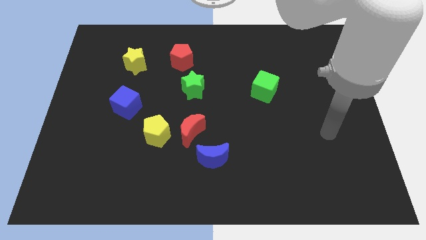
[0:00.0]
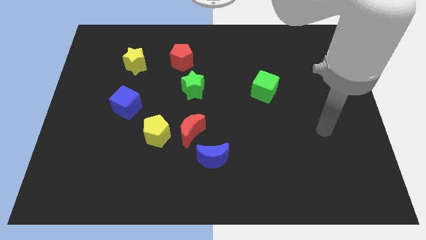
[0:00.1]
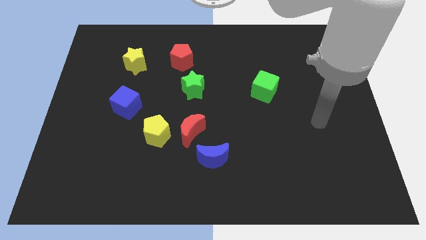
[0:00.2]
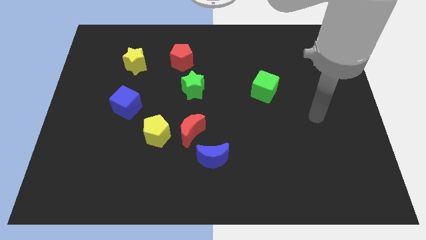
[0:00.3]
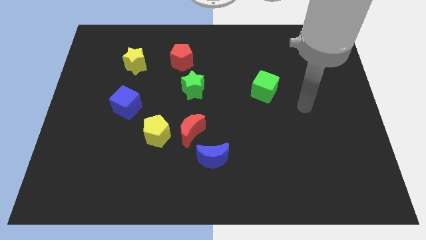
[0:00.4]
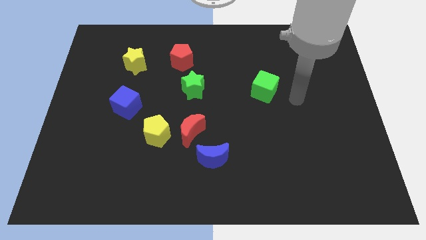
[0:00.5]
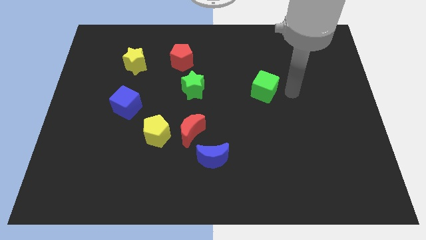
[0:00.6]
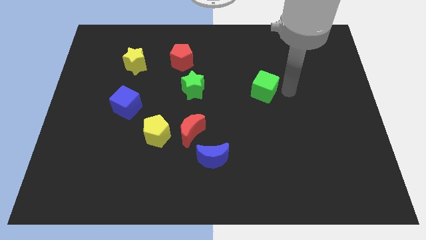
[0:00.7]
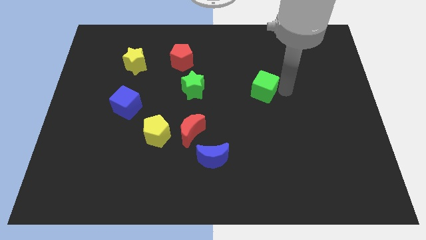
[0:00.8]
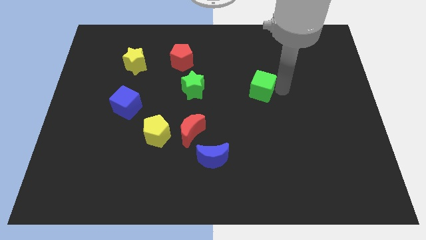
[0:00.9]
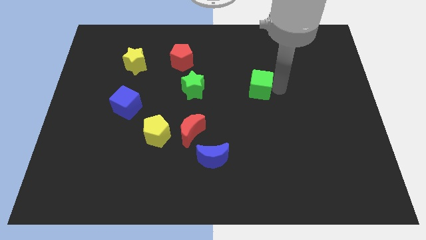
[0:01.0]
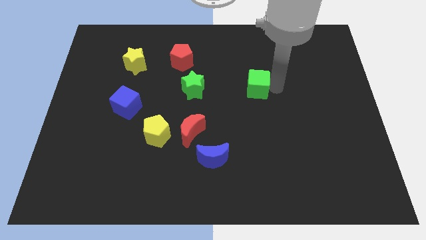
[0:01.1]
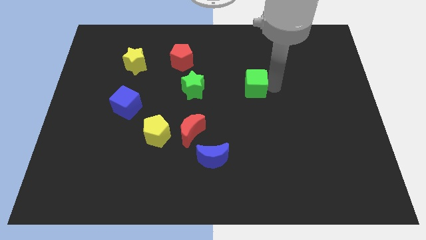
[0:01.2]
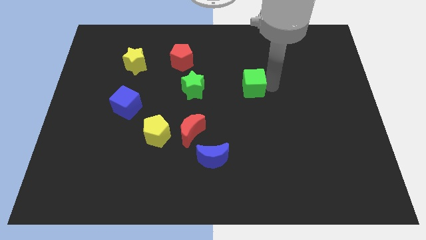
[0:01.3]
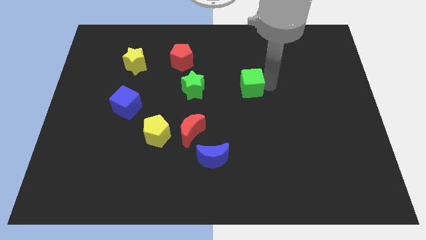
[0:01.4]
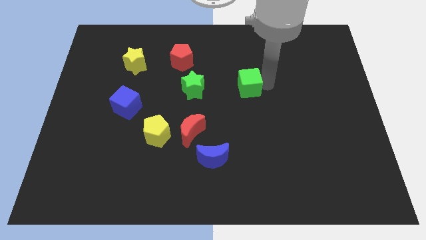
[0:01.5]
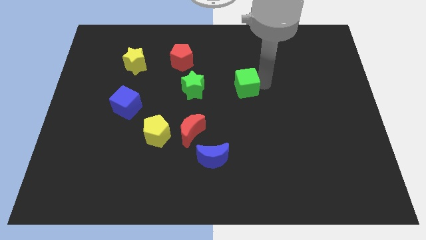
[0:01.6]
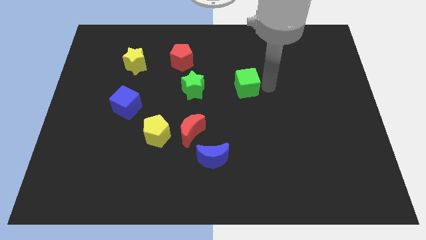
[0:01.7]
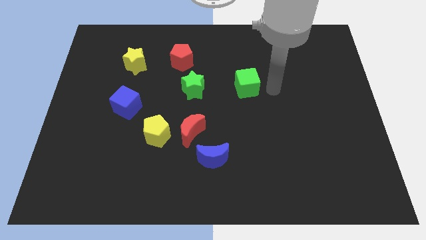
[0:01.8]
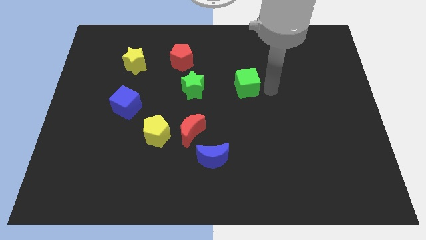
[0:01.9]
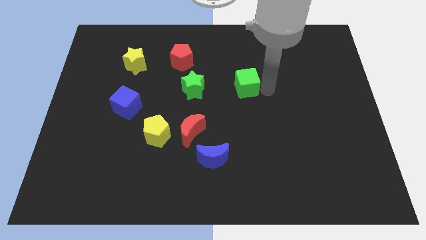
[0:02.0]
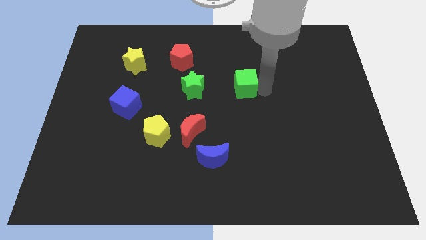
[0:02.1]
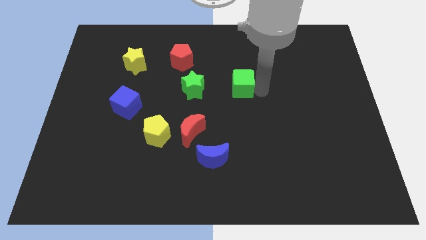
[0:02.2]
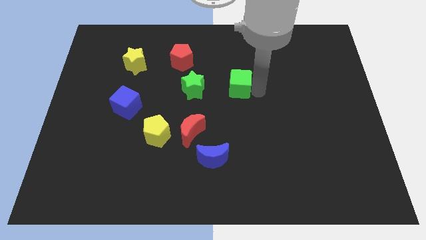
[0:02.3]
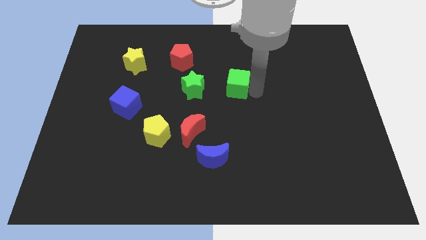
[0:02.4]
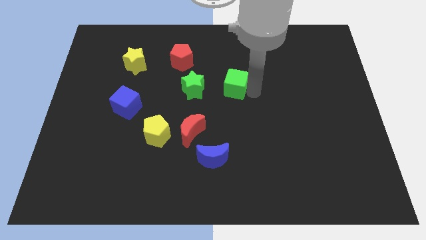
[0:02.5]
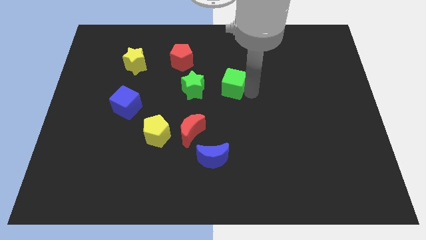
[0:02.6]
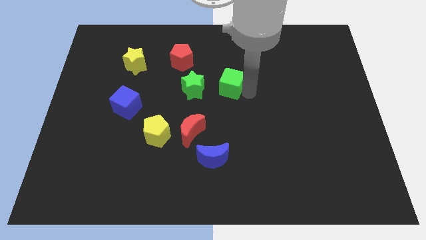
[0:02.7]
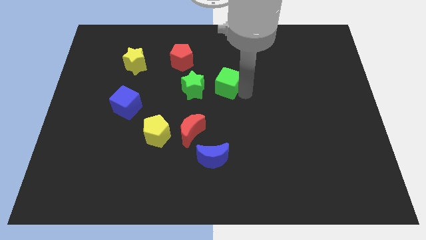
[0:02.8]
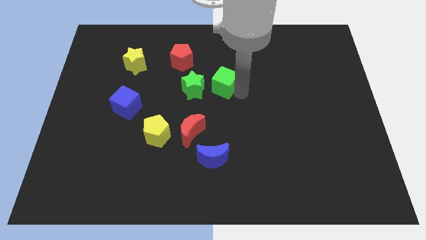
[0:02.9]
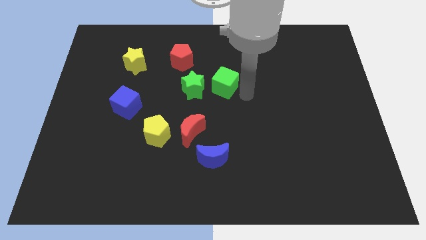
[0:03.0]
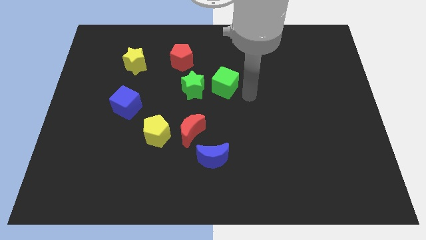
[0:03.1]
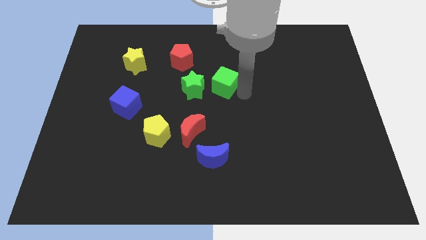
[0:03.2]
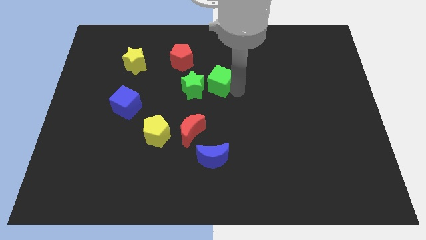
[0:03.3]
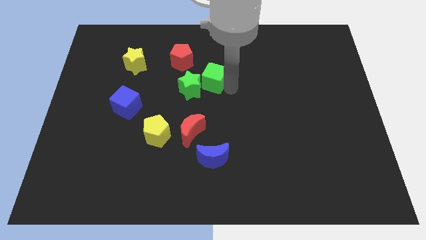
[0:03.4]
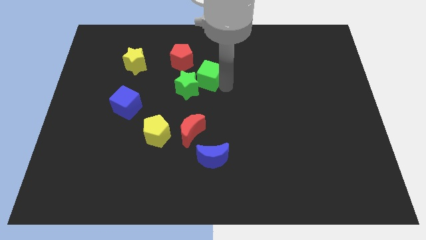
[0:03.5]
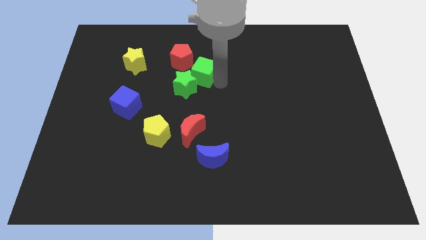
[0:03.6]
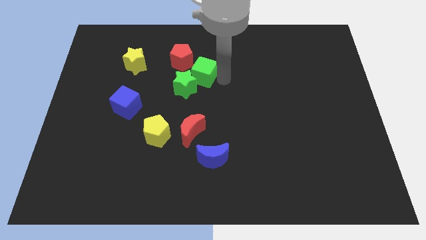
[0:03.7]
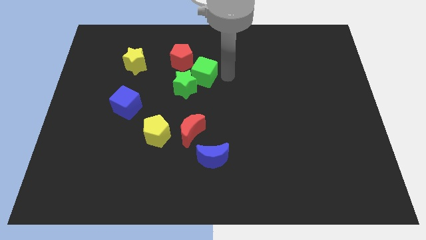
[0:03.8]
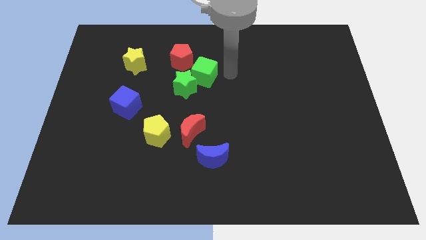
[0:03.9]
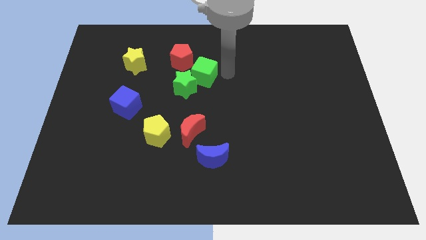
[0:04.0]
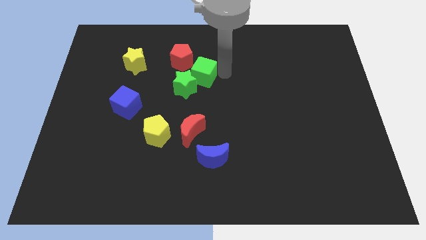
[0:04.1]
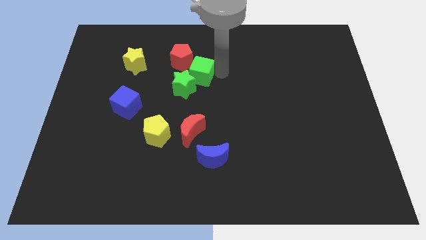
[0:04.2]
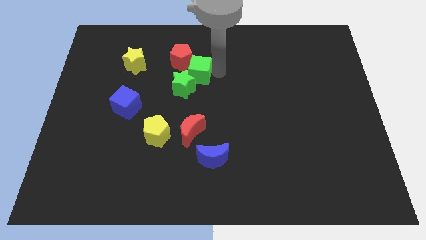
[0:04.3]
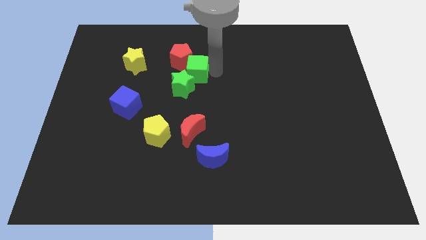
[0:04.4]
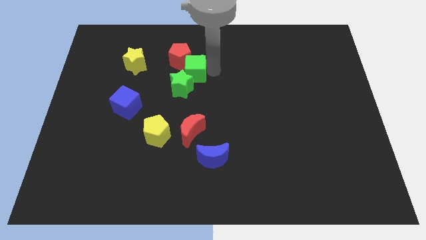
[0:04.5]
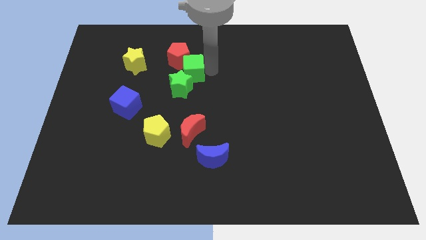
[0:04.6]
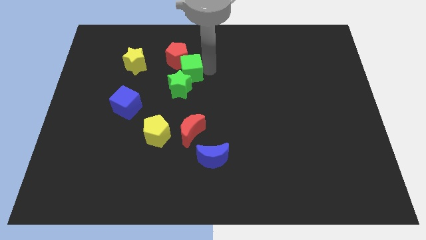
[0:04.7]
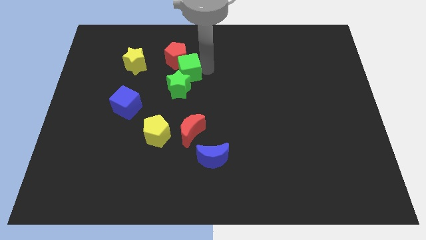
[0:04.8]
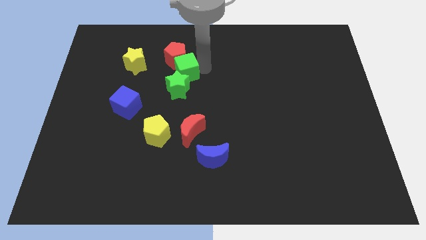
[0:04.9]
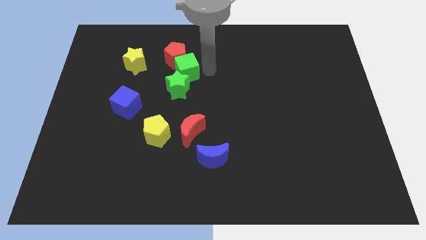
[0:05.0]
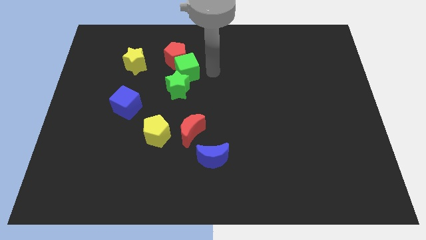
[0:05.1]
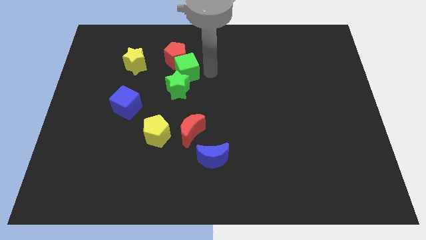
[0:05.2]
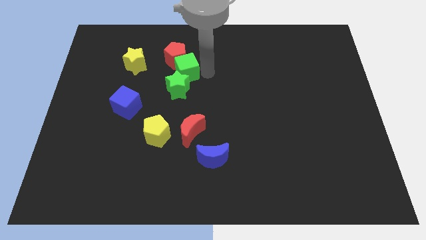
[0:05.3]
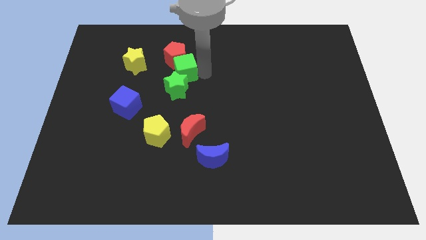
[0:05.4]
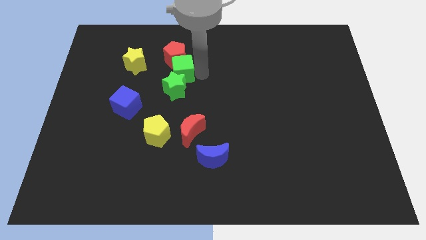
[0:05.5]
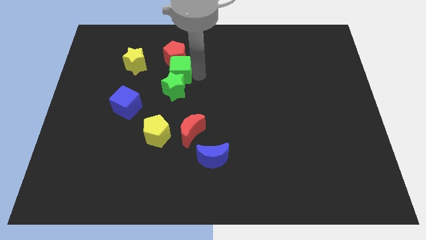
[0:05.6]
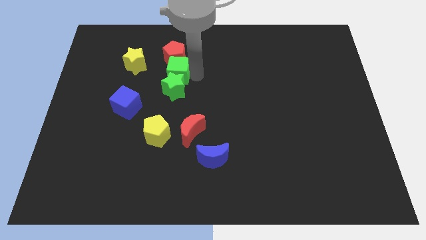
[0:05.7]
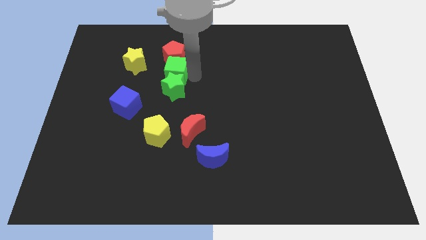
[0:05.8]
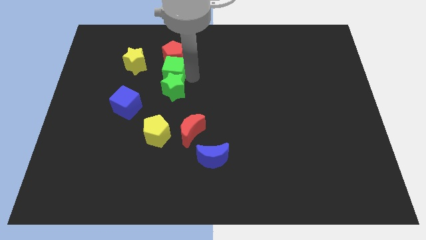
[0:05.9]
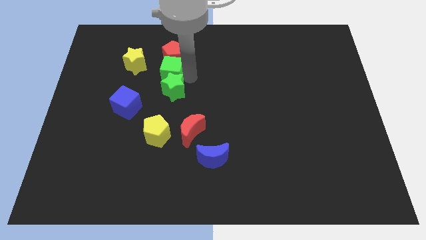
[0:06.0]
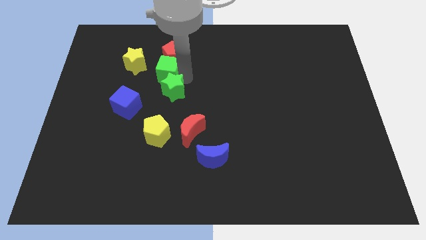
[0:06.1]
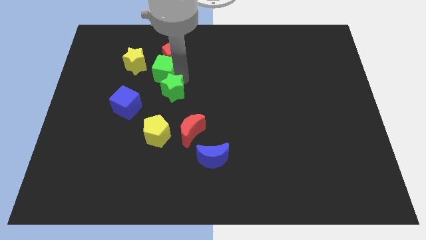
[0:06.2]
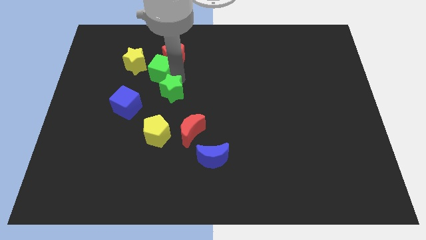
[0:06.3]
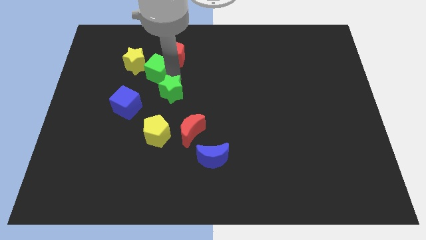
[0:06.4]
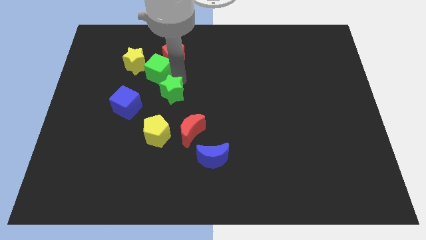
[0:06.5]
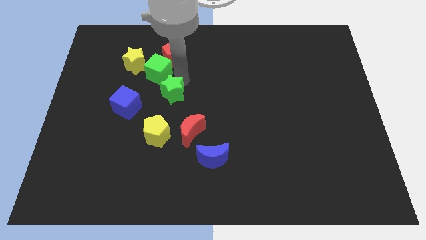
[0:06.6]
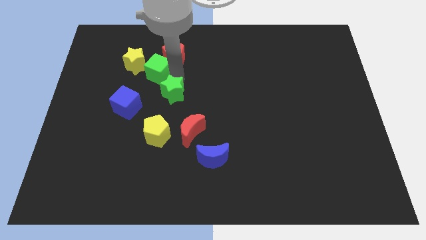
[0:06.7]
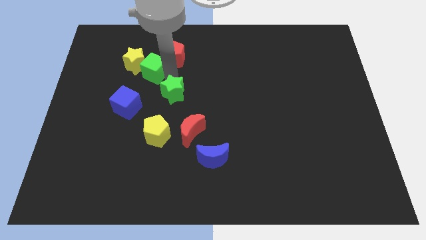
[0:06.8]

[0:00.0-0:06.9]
push the green cube towards the yellow star
